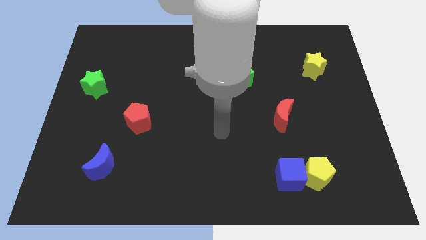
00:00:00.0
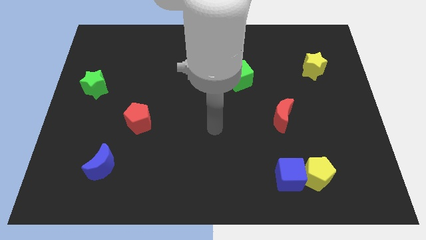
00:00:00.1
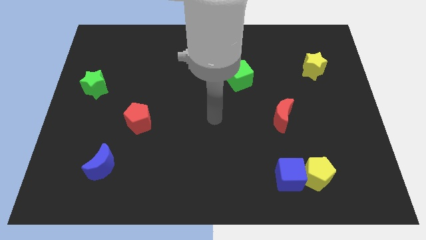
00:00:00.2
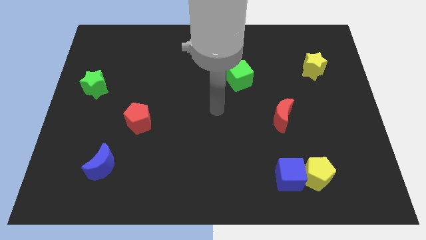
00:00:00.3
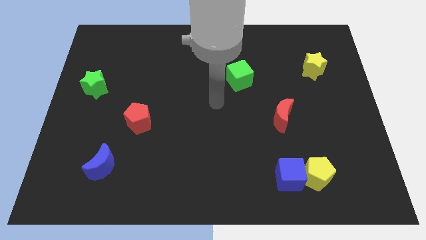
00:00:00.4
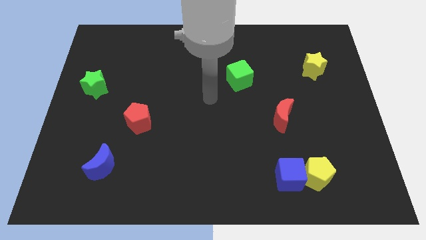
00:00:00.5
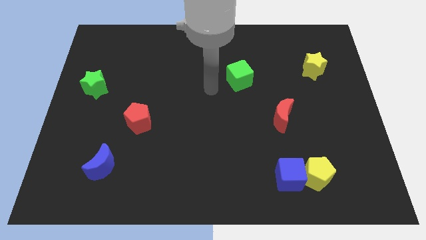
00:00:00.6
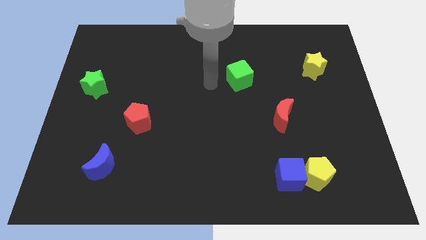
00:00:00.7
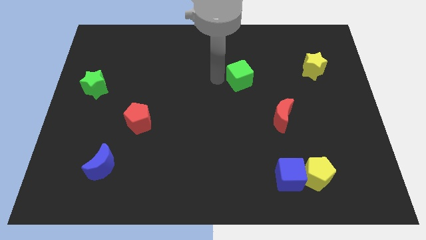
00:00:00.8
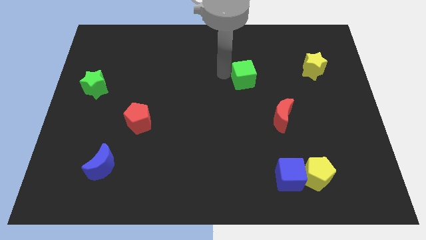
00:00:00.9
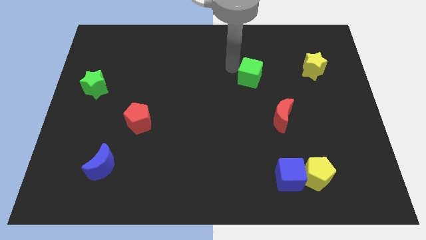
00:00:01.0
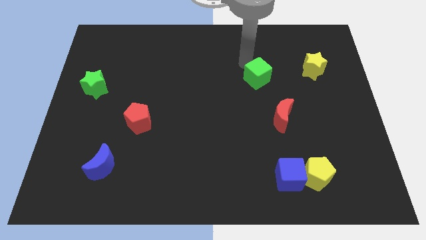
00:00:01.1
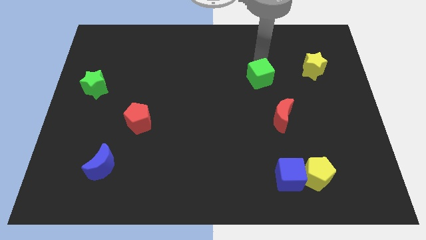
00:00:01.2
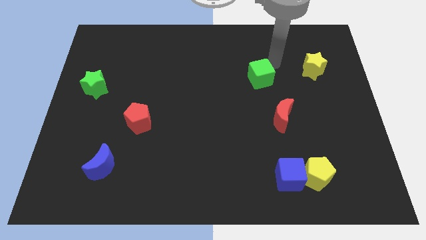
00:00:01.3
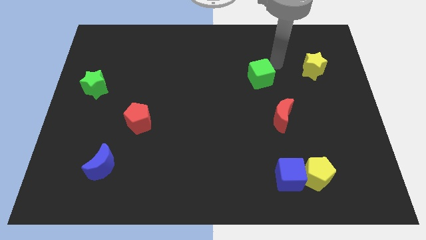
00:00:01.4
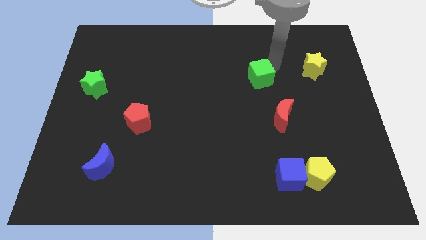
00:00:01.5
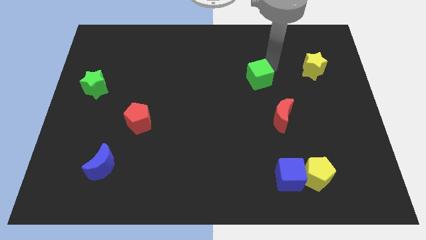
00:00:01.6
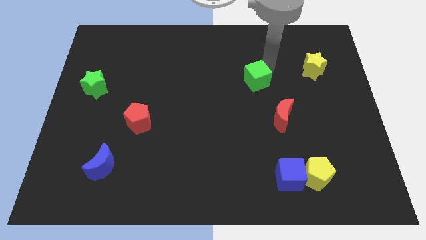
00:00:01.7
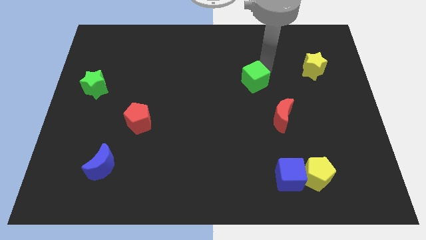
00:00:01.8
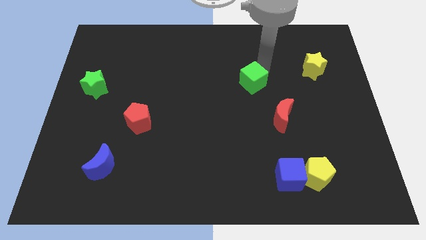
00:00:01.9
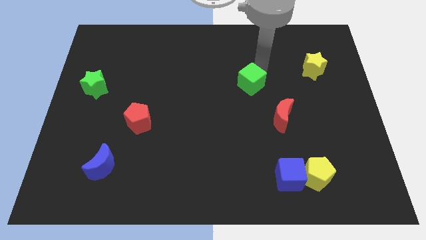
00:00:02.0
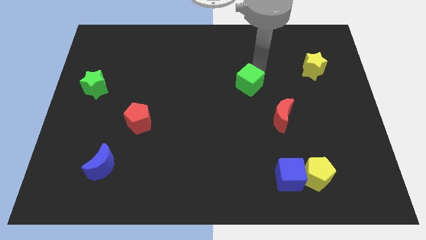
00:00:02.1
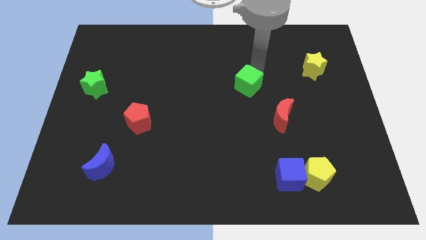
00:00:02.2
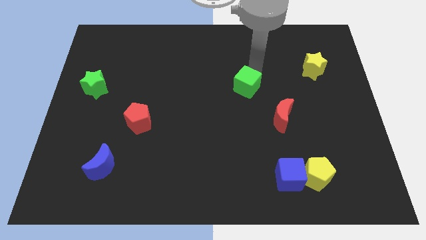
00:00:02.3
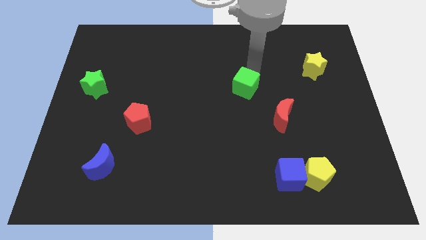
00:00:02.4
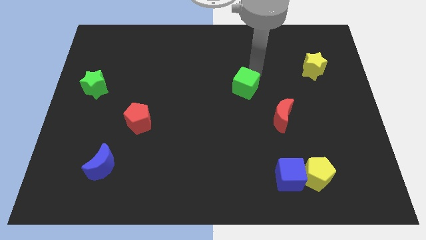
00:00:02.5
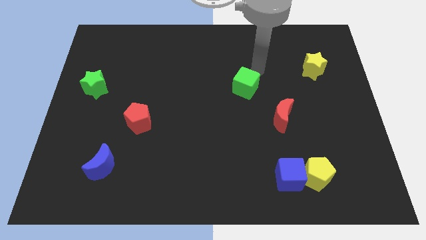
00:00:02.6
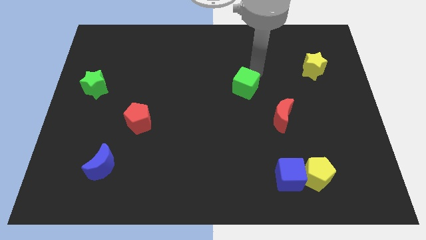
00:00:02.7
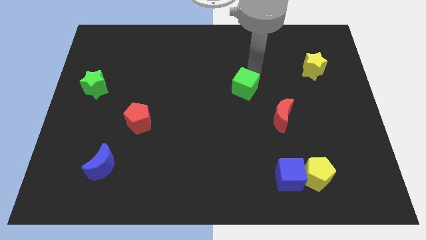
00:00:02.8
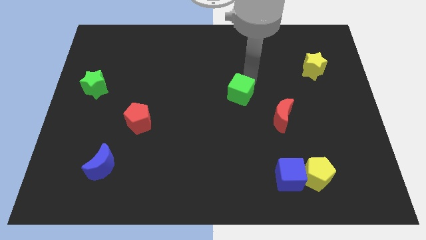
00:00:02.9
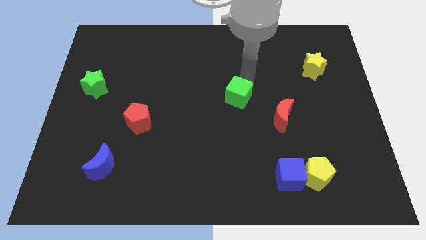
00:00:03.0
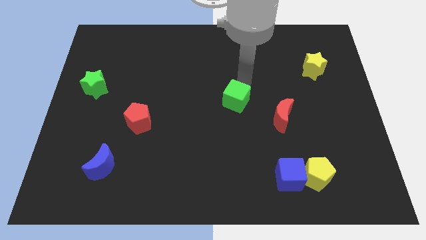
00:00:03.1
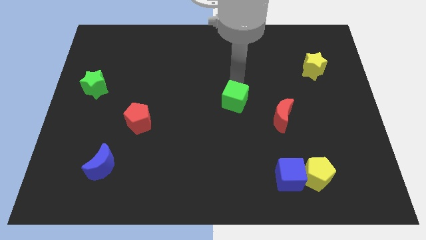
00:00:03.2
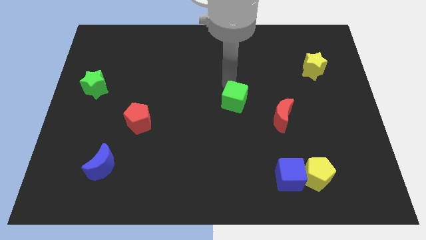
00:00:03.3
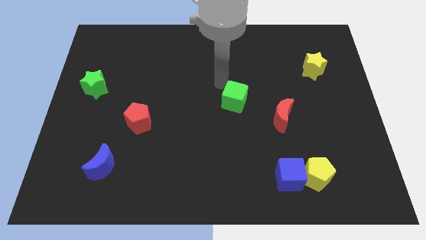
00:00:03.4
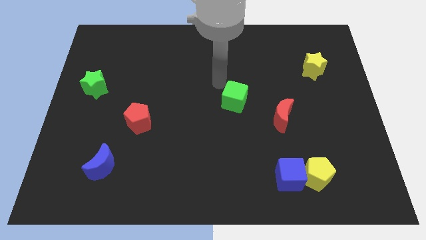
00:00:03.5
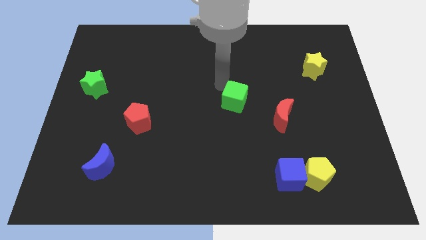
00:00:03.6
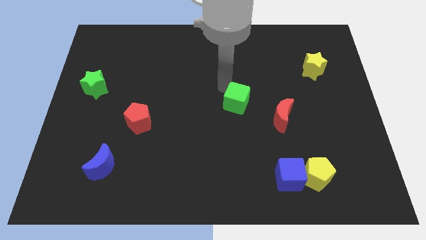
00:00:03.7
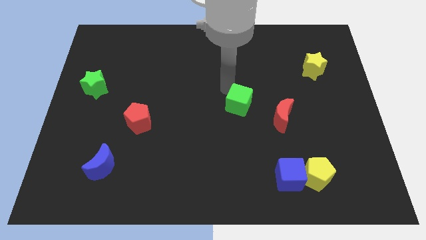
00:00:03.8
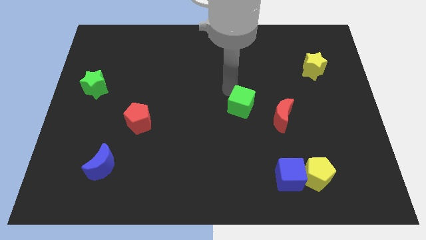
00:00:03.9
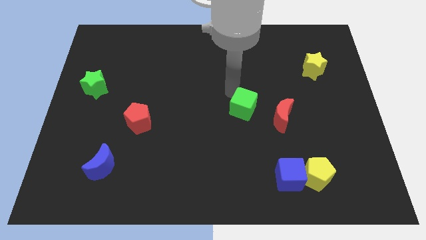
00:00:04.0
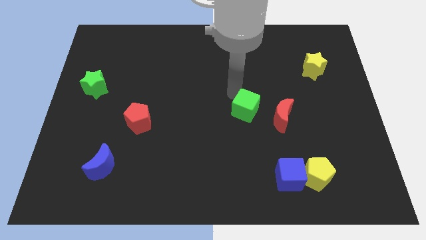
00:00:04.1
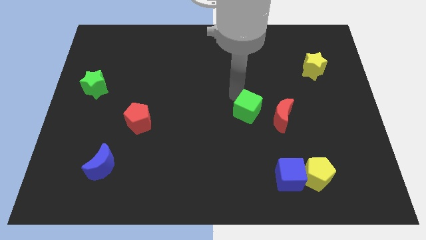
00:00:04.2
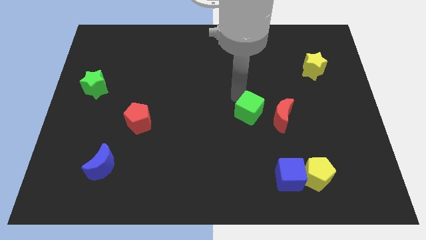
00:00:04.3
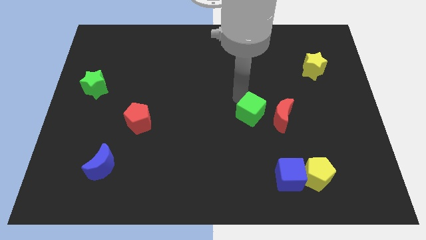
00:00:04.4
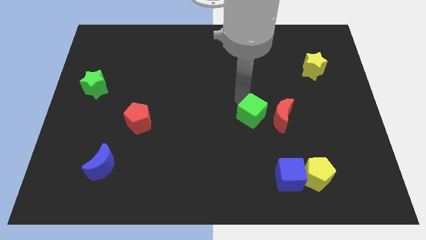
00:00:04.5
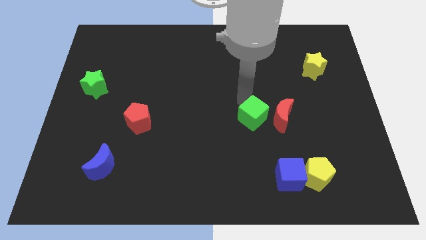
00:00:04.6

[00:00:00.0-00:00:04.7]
move the green cube to the bottom left of the red moon

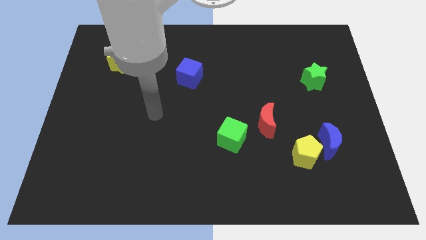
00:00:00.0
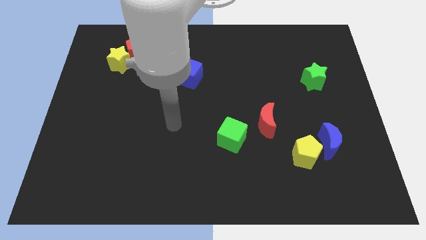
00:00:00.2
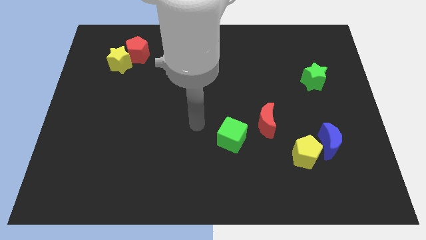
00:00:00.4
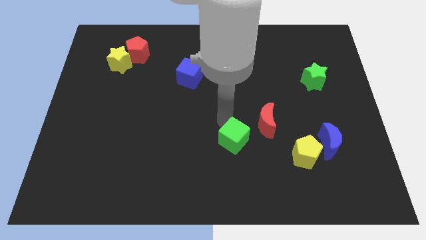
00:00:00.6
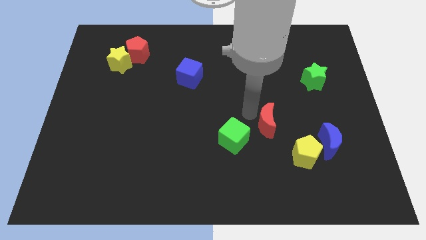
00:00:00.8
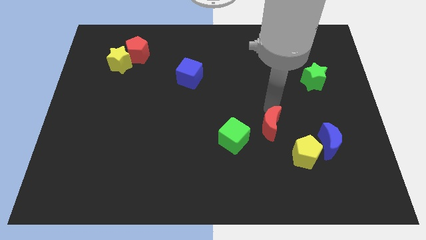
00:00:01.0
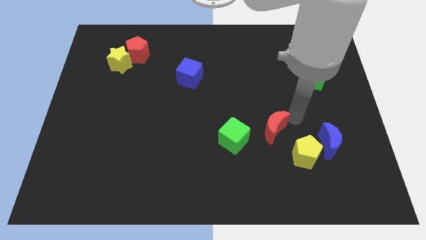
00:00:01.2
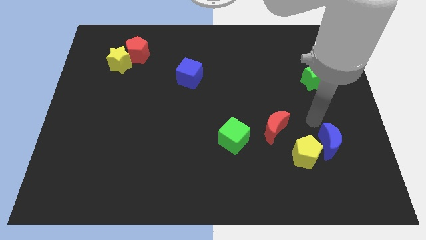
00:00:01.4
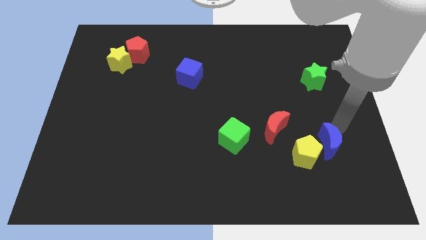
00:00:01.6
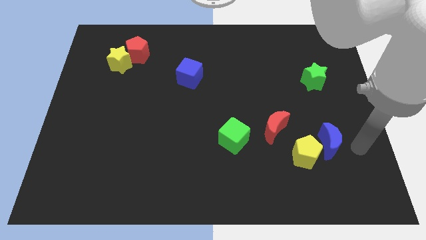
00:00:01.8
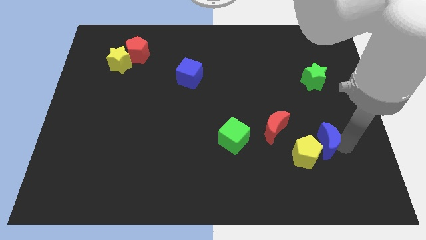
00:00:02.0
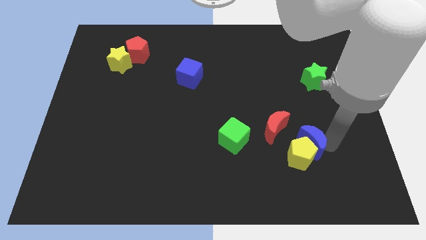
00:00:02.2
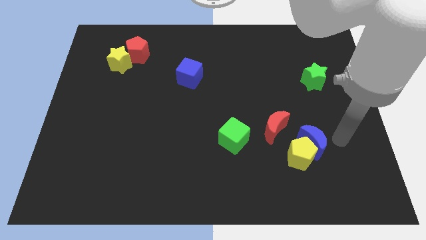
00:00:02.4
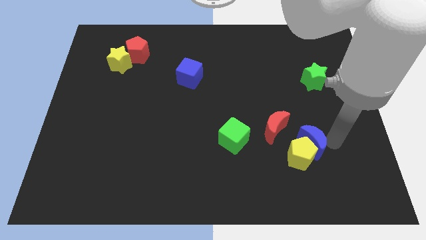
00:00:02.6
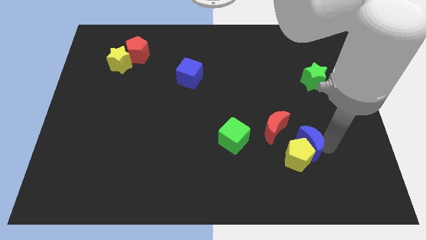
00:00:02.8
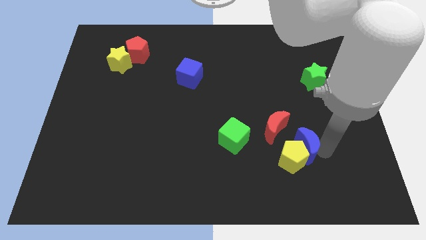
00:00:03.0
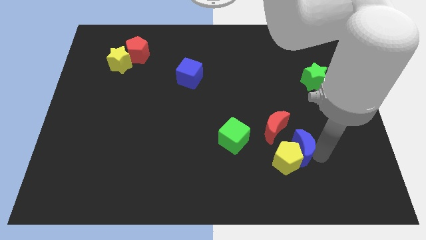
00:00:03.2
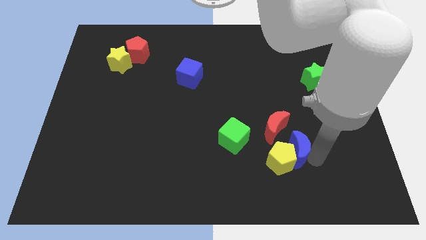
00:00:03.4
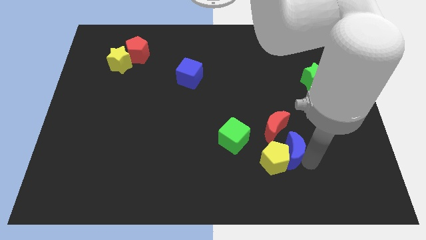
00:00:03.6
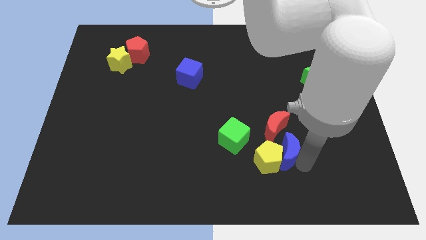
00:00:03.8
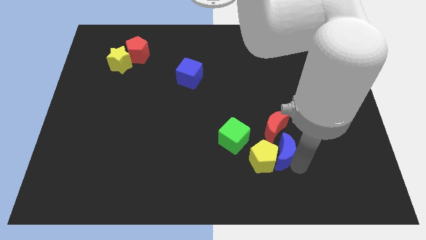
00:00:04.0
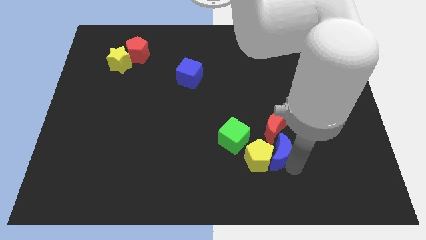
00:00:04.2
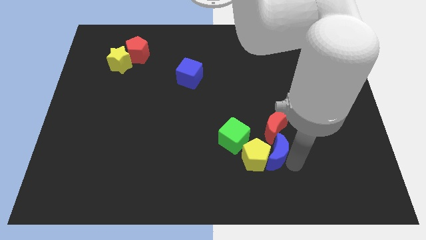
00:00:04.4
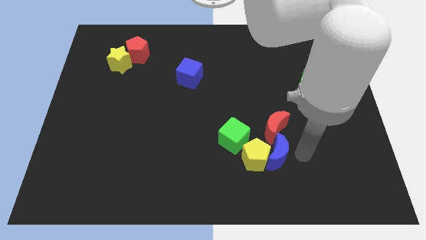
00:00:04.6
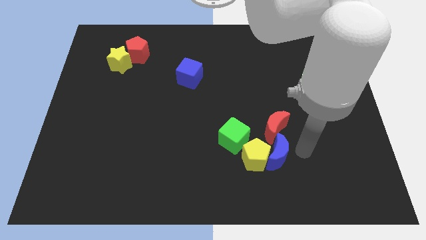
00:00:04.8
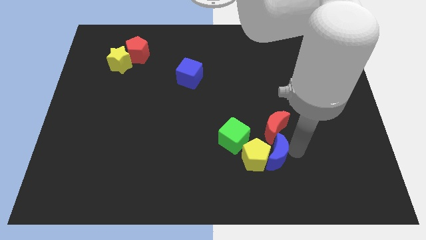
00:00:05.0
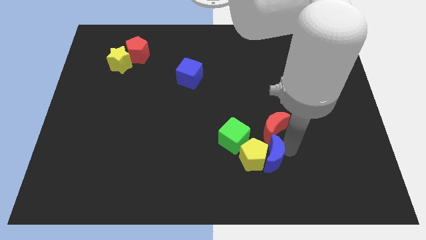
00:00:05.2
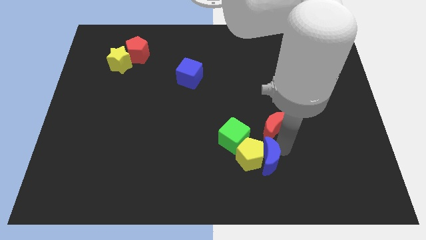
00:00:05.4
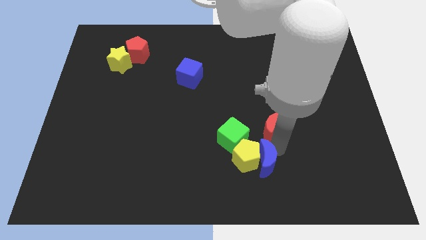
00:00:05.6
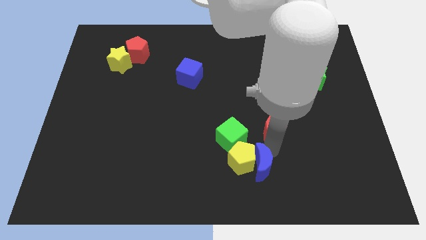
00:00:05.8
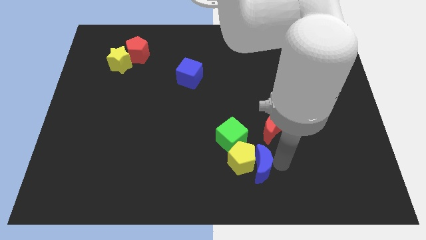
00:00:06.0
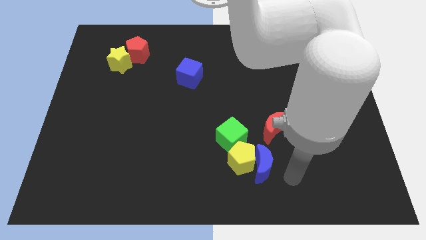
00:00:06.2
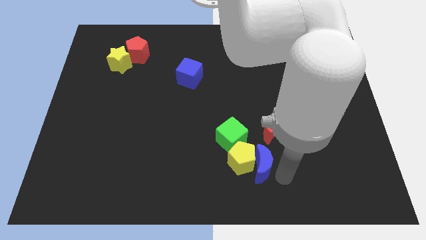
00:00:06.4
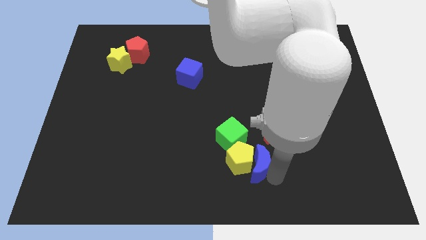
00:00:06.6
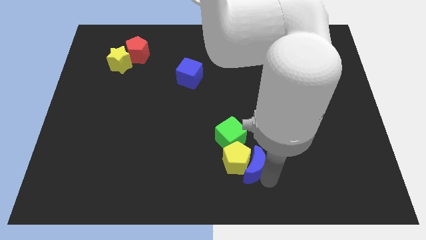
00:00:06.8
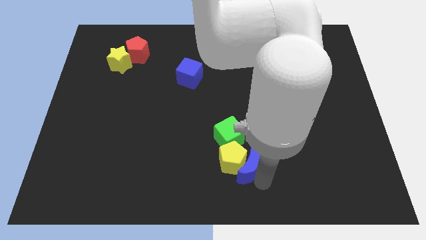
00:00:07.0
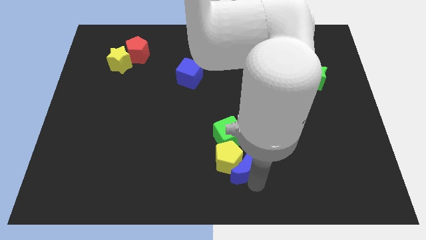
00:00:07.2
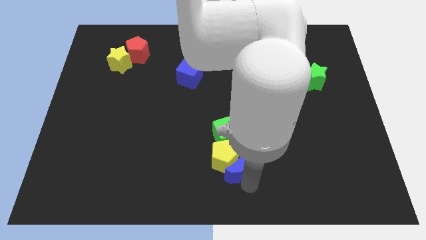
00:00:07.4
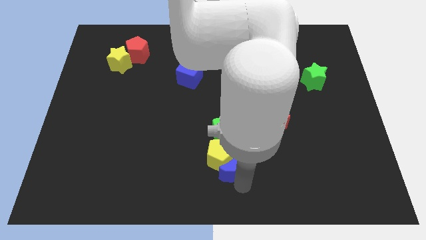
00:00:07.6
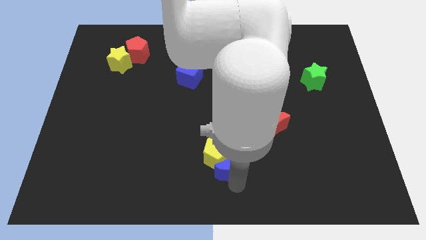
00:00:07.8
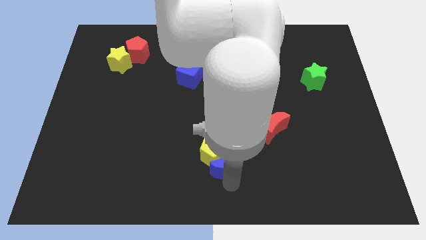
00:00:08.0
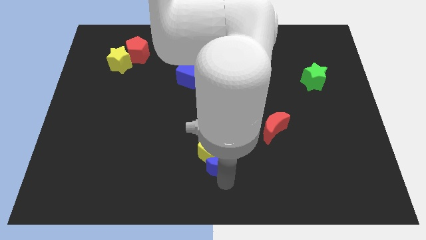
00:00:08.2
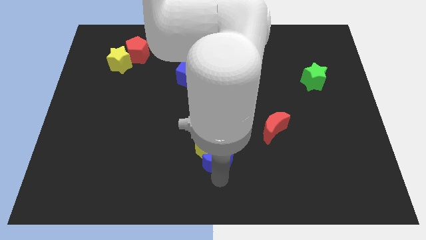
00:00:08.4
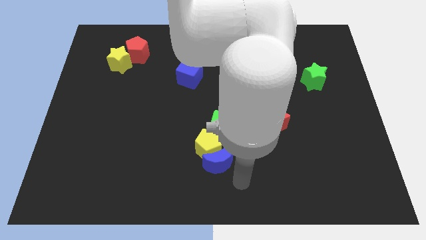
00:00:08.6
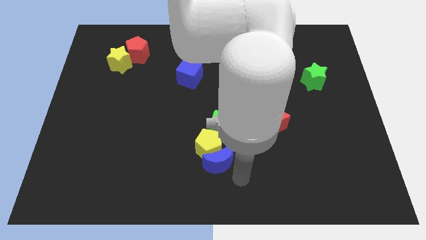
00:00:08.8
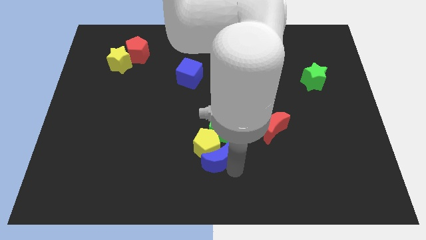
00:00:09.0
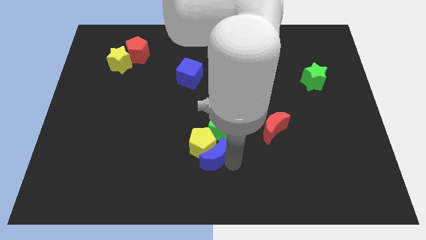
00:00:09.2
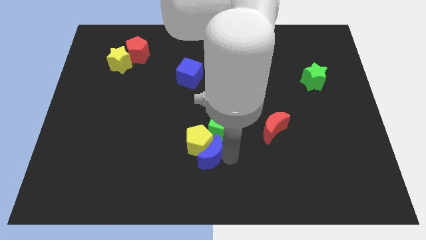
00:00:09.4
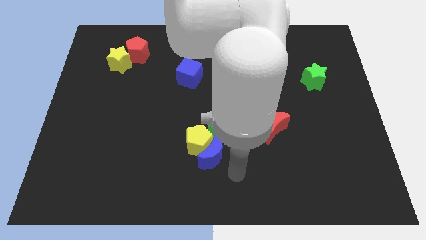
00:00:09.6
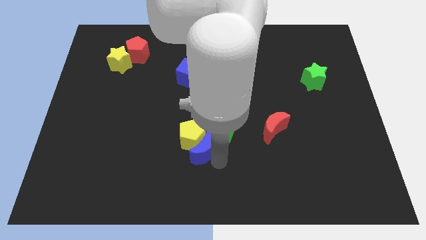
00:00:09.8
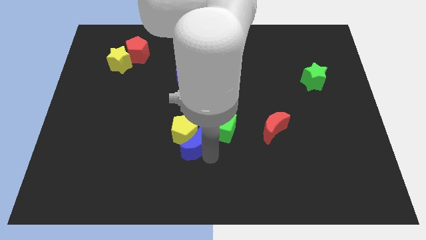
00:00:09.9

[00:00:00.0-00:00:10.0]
put the blue moon just left of the green cube
